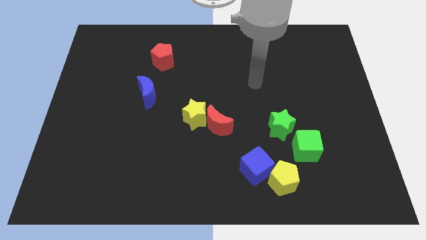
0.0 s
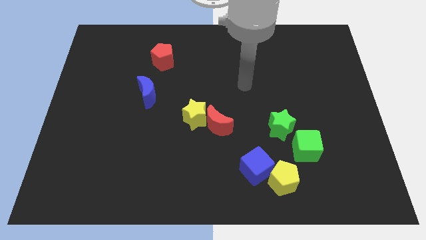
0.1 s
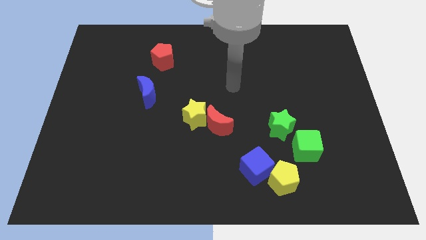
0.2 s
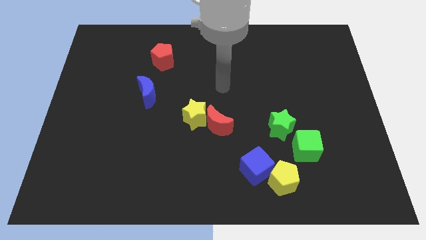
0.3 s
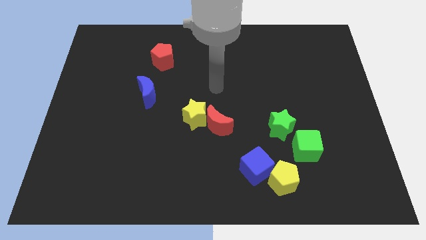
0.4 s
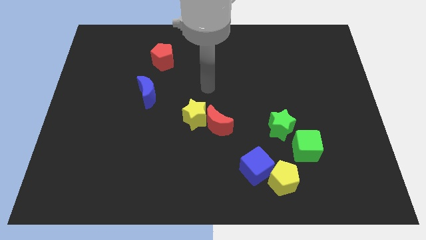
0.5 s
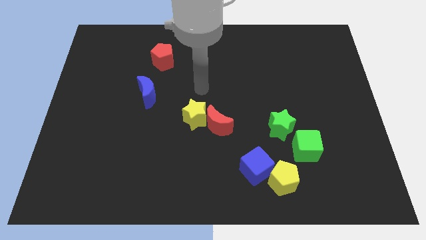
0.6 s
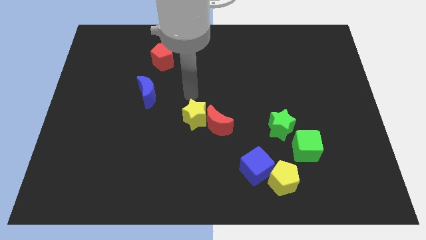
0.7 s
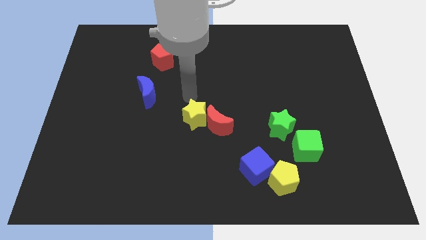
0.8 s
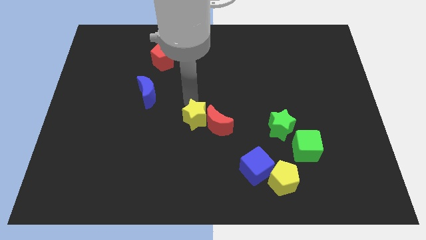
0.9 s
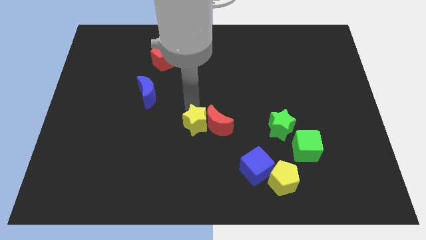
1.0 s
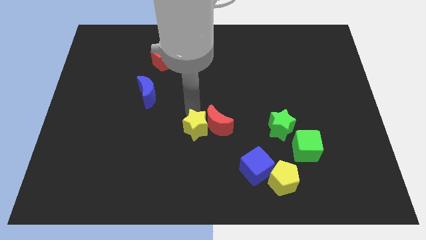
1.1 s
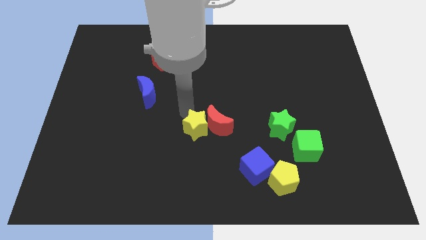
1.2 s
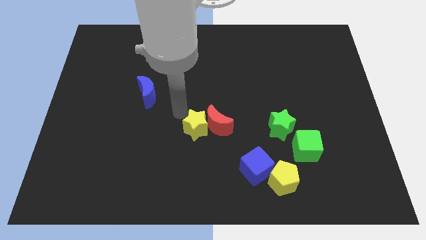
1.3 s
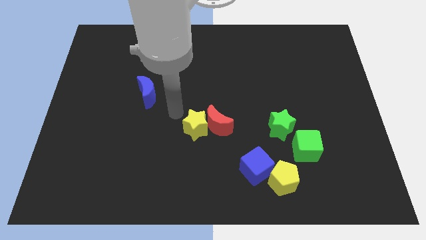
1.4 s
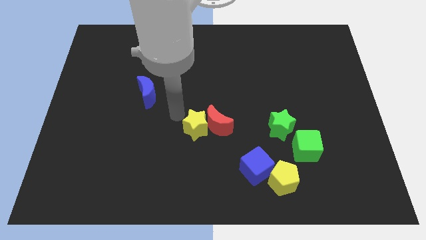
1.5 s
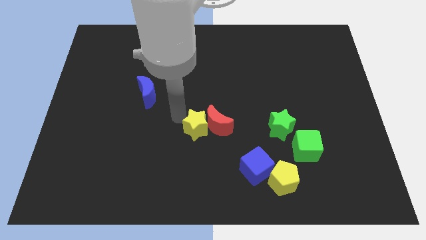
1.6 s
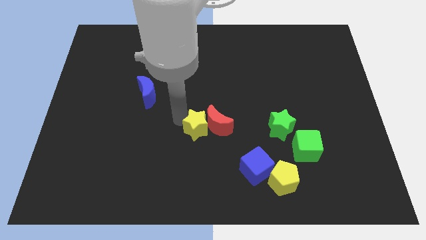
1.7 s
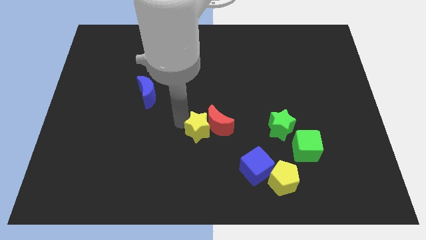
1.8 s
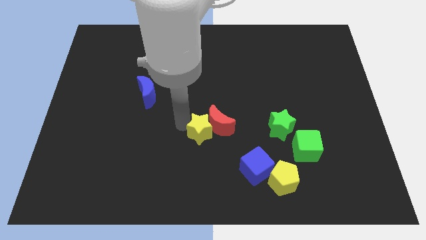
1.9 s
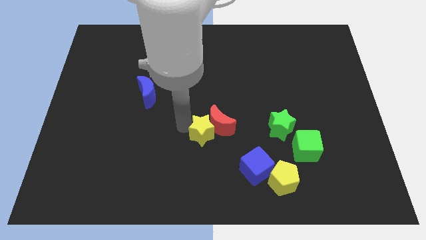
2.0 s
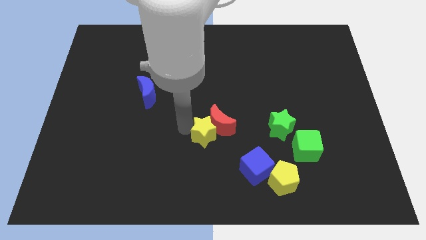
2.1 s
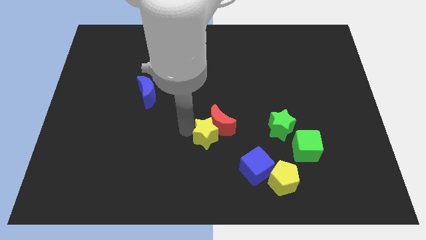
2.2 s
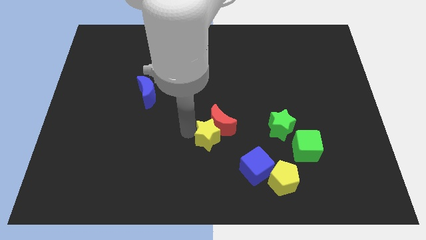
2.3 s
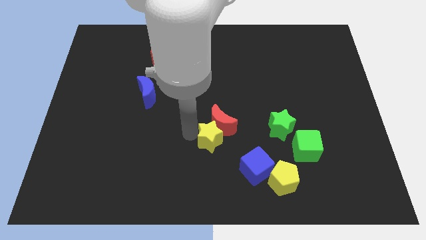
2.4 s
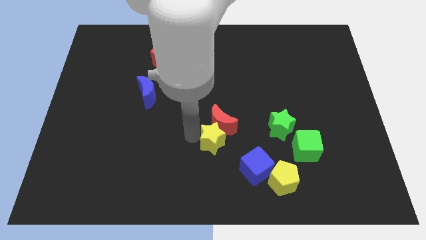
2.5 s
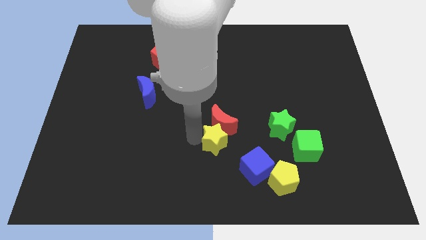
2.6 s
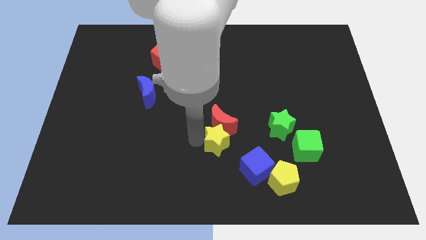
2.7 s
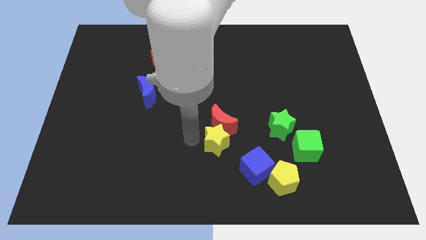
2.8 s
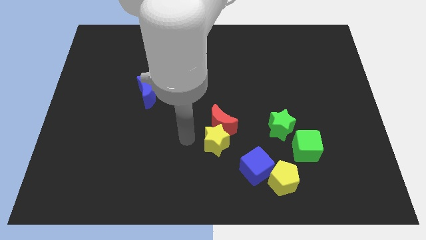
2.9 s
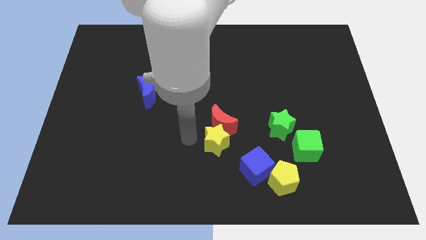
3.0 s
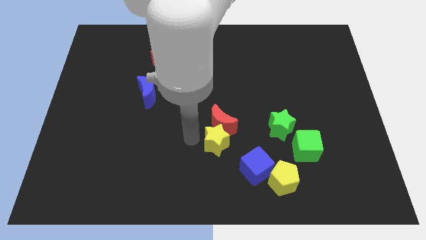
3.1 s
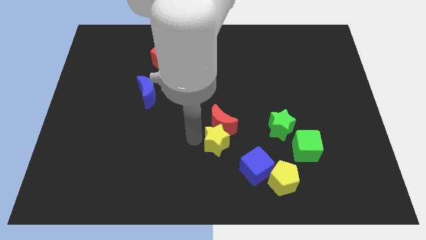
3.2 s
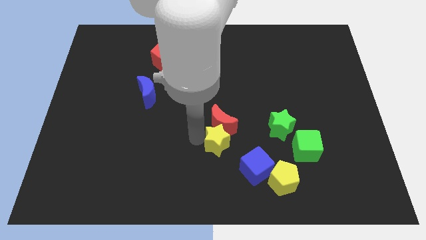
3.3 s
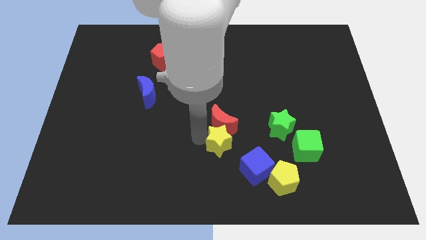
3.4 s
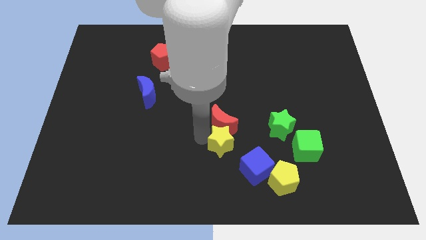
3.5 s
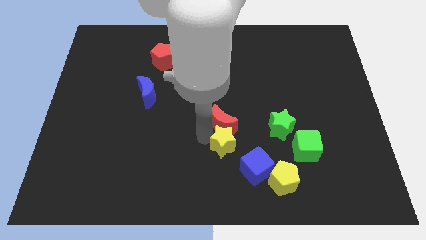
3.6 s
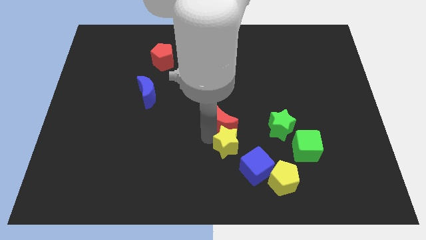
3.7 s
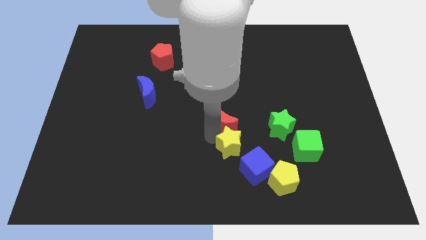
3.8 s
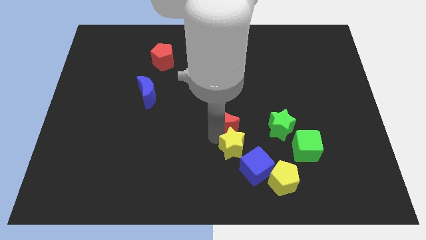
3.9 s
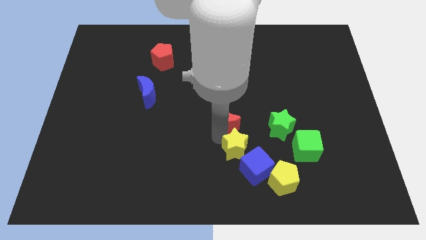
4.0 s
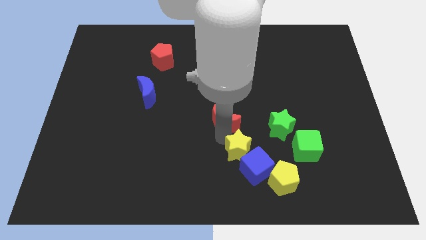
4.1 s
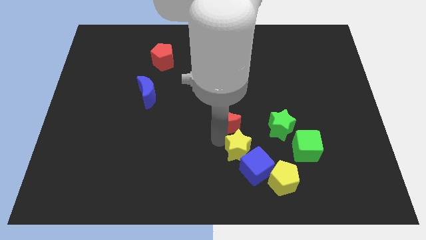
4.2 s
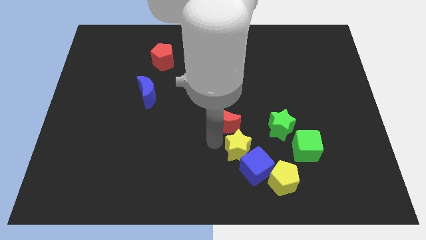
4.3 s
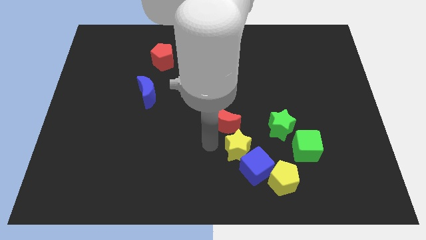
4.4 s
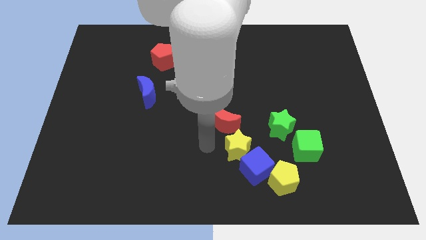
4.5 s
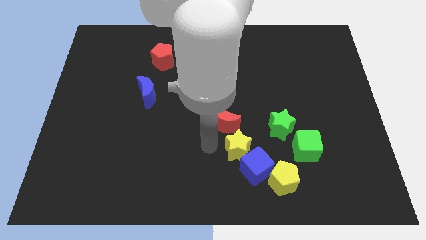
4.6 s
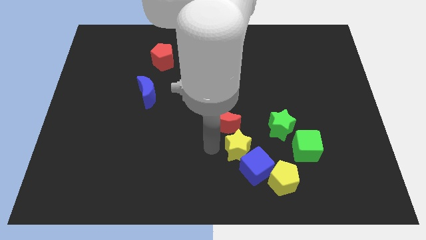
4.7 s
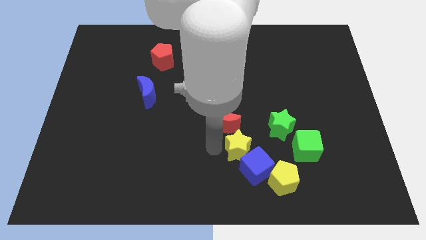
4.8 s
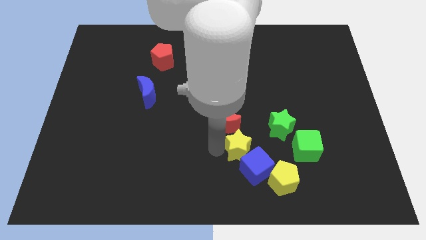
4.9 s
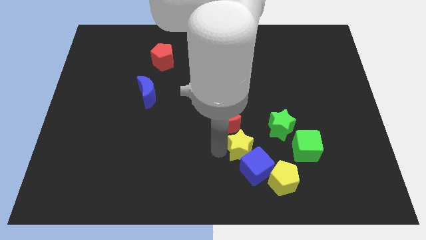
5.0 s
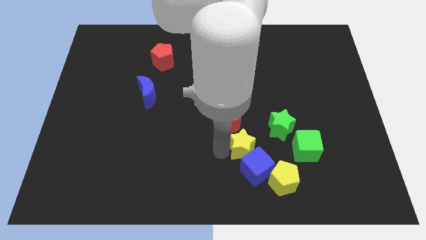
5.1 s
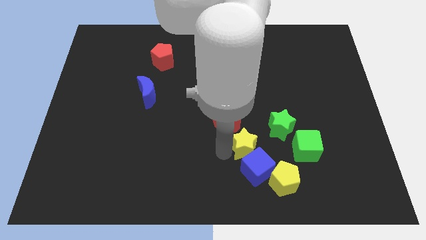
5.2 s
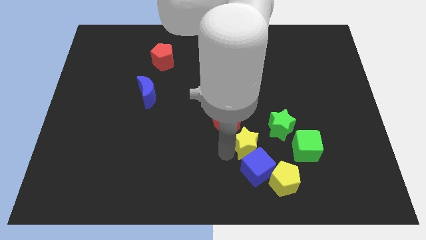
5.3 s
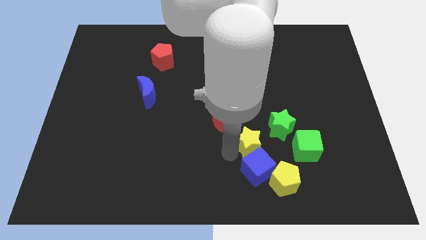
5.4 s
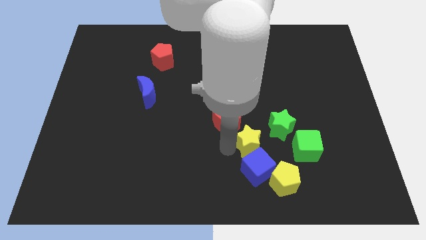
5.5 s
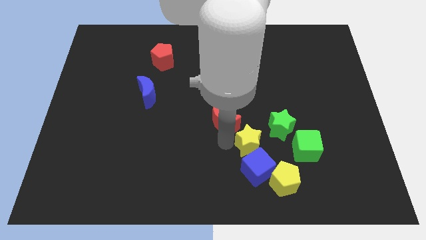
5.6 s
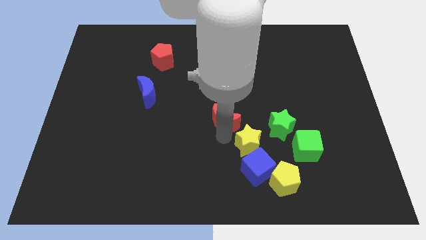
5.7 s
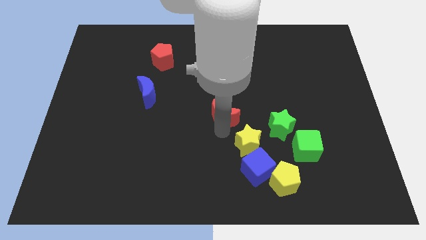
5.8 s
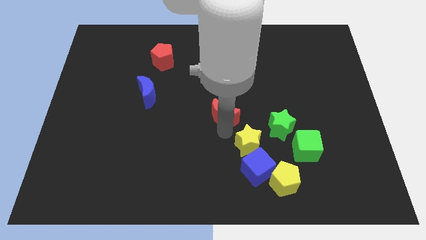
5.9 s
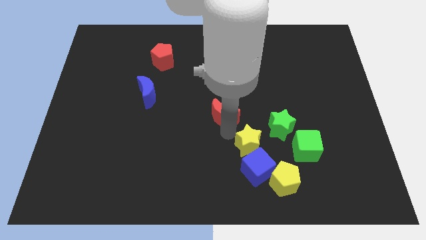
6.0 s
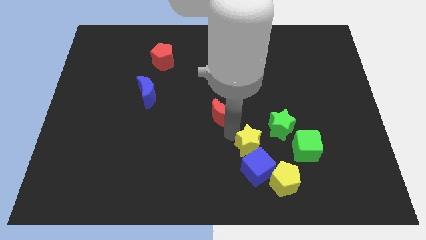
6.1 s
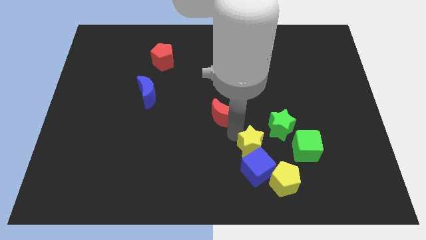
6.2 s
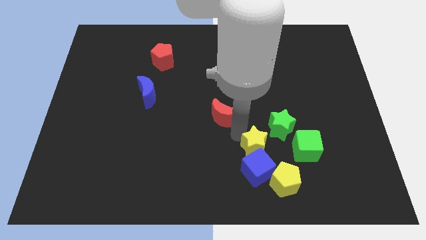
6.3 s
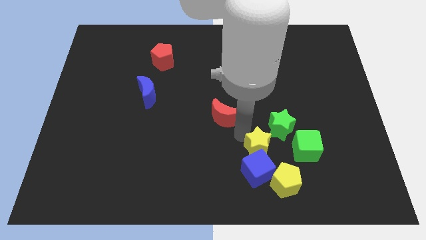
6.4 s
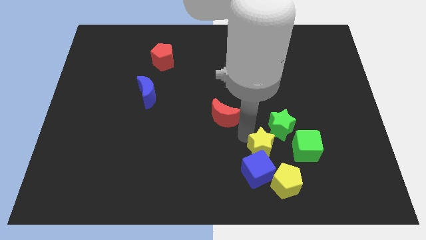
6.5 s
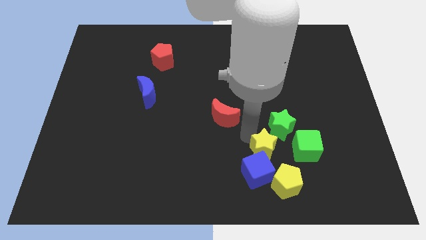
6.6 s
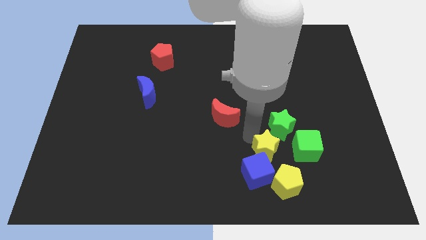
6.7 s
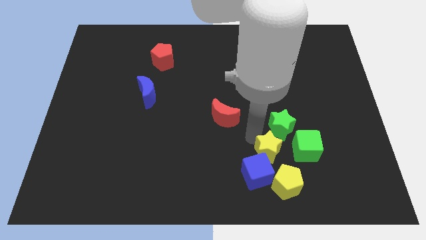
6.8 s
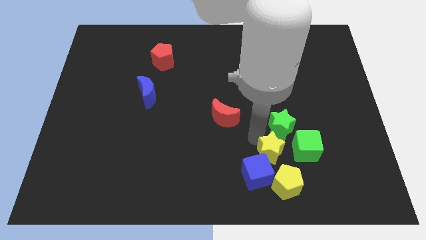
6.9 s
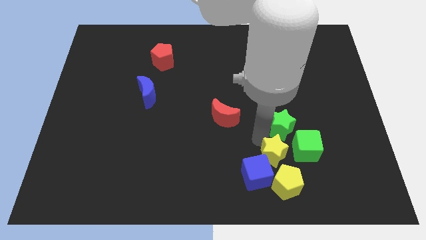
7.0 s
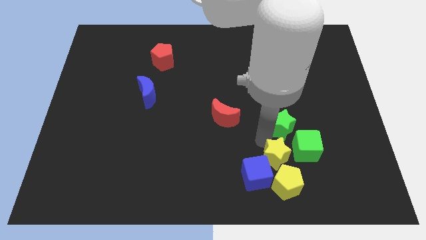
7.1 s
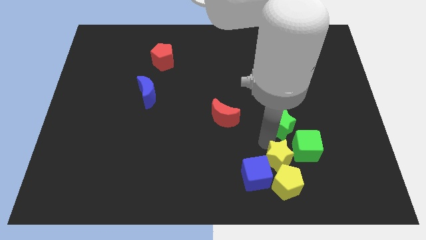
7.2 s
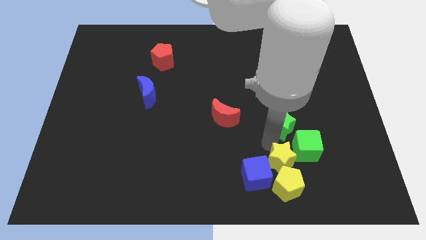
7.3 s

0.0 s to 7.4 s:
slide the yellow star next to the yellow pentagon
